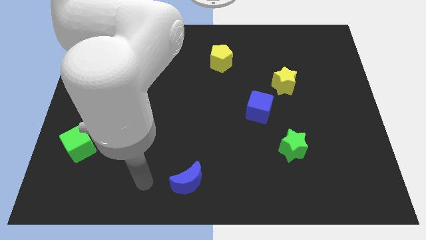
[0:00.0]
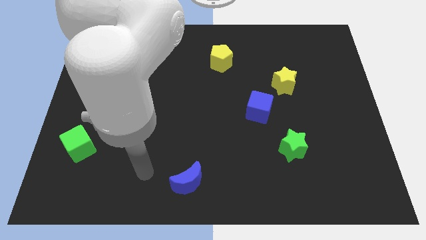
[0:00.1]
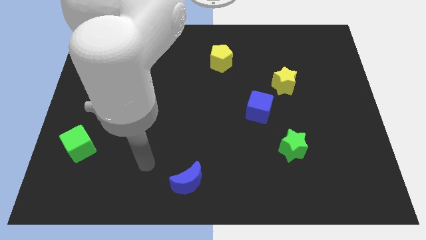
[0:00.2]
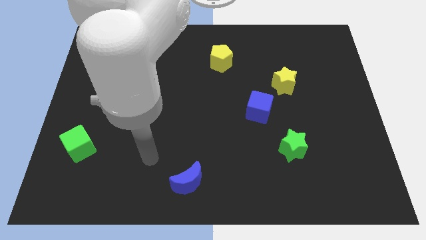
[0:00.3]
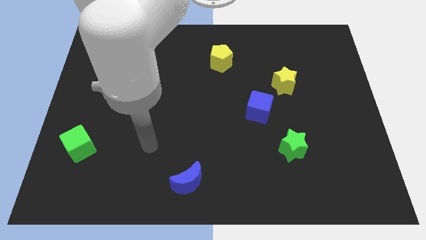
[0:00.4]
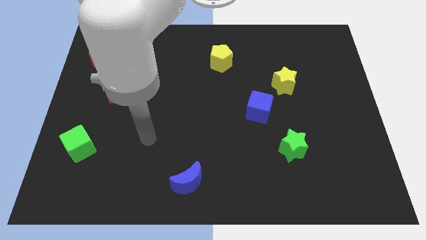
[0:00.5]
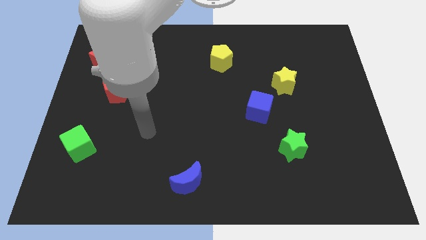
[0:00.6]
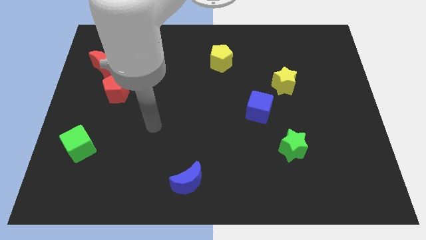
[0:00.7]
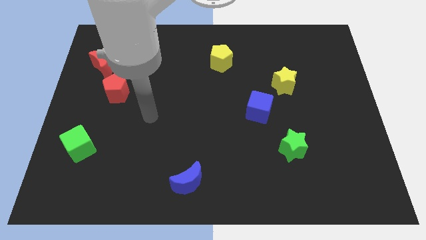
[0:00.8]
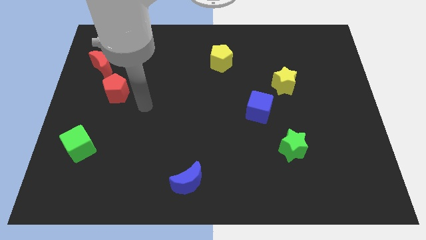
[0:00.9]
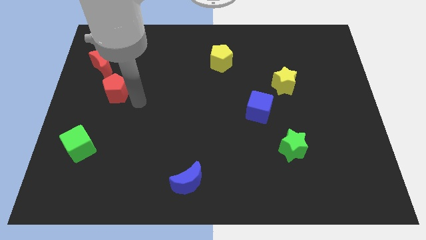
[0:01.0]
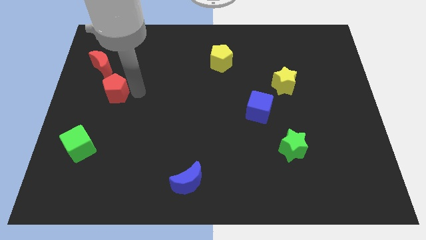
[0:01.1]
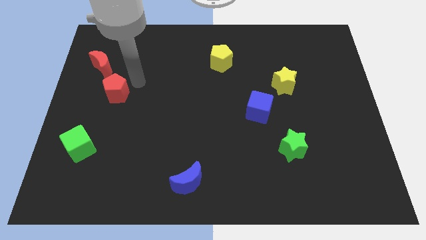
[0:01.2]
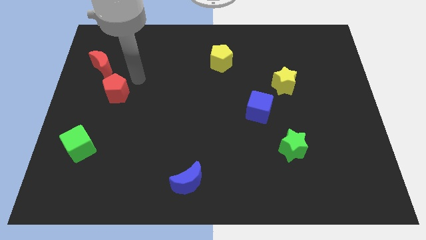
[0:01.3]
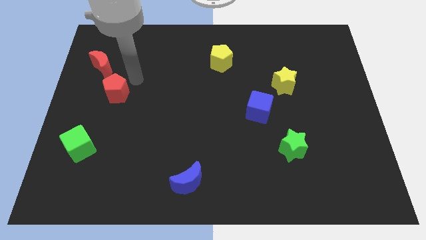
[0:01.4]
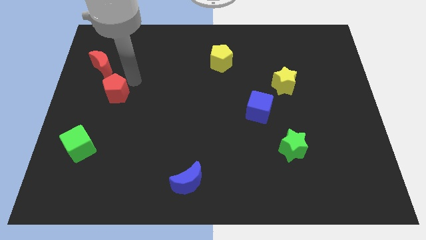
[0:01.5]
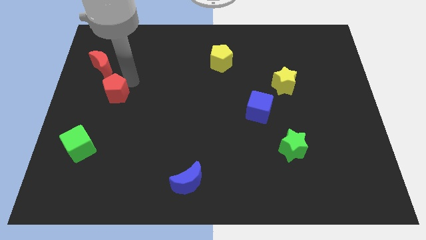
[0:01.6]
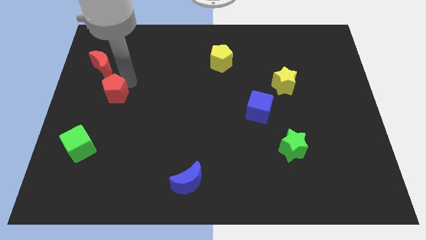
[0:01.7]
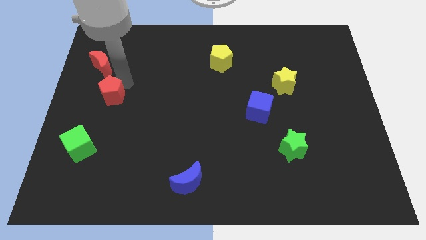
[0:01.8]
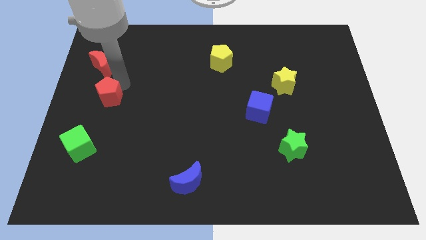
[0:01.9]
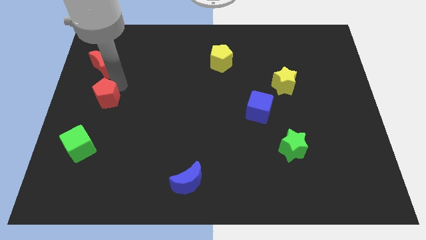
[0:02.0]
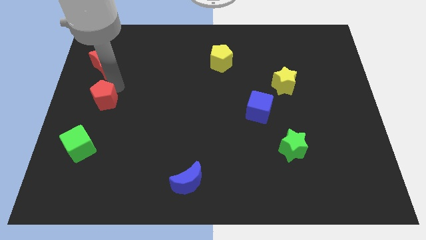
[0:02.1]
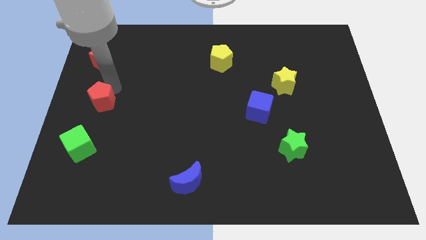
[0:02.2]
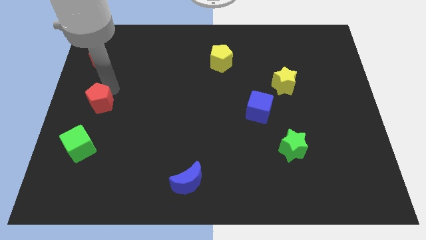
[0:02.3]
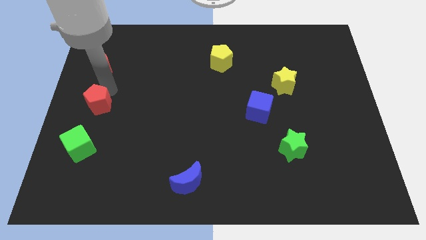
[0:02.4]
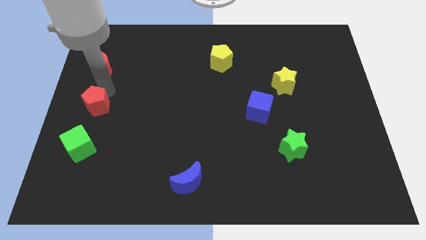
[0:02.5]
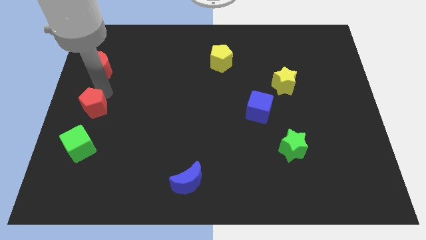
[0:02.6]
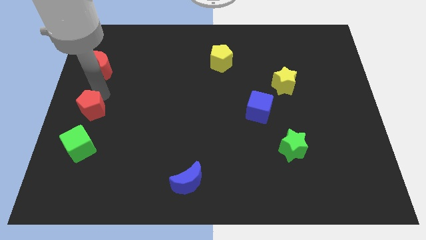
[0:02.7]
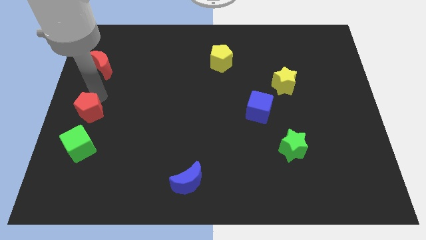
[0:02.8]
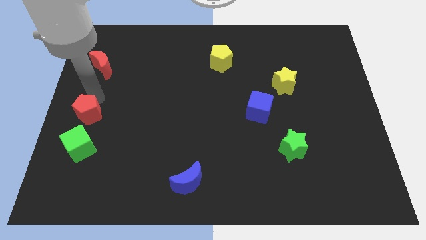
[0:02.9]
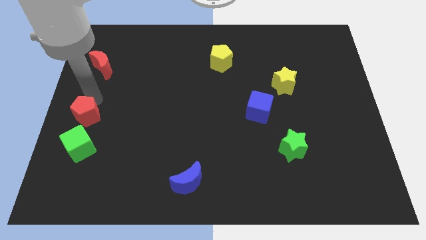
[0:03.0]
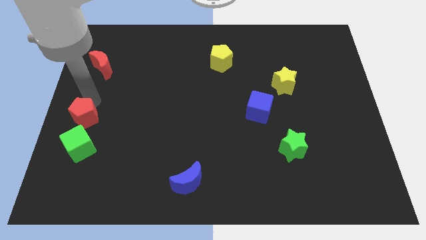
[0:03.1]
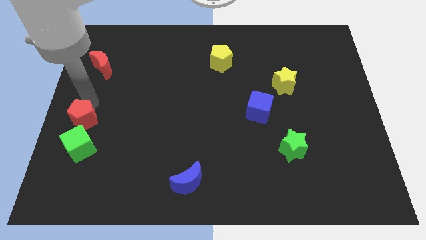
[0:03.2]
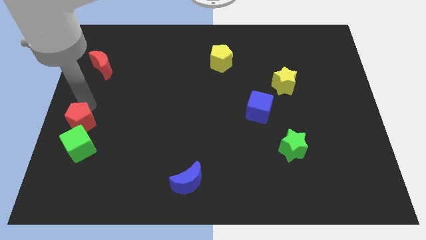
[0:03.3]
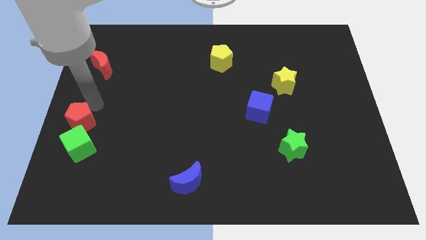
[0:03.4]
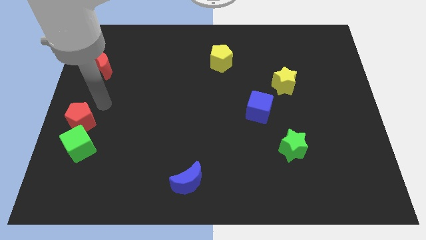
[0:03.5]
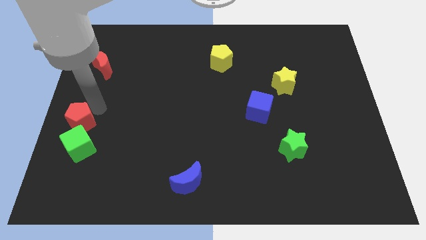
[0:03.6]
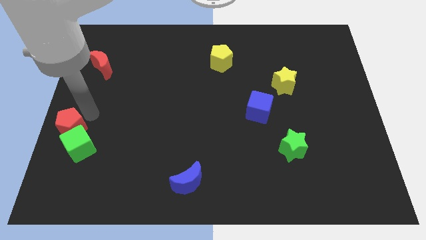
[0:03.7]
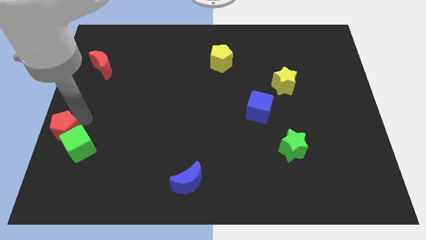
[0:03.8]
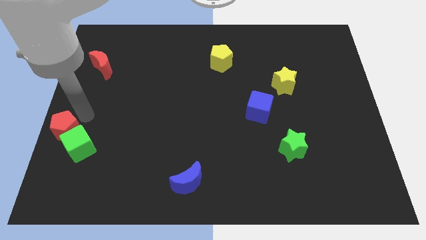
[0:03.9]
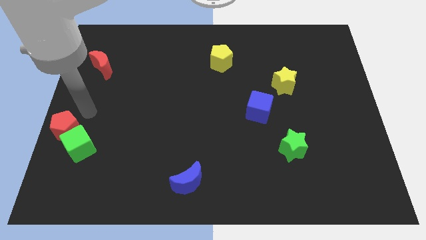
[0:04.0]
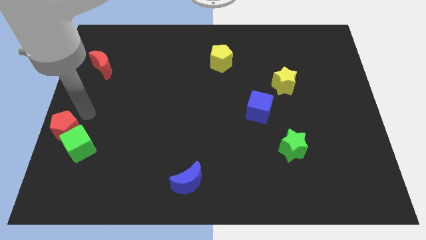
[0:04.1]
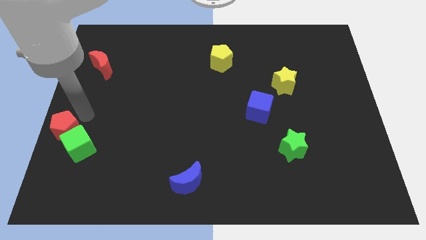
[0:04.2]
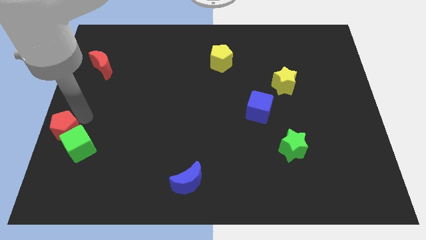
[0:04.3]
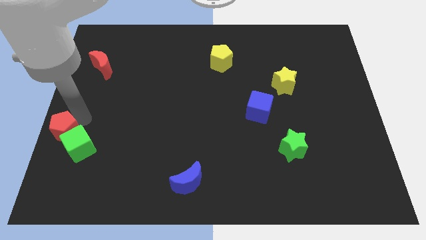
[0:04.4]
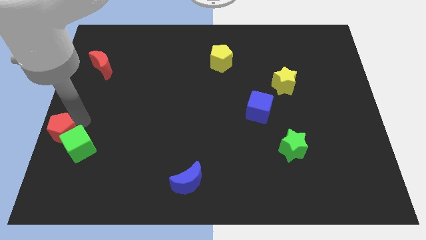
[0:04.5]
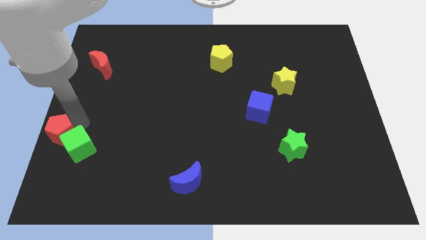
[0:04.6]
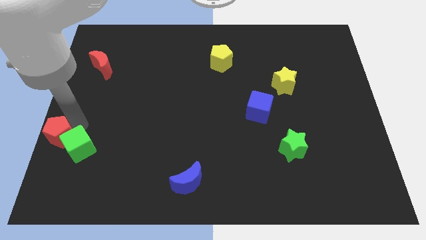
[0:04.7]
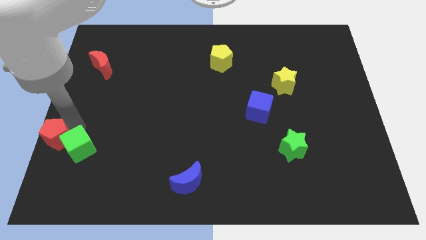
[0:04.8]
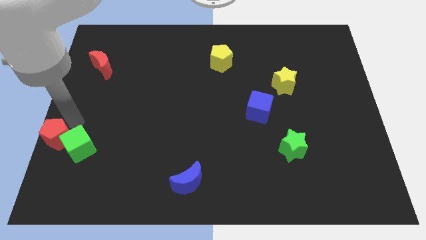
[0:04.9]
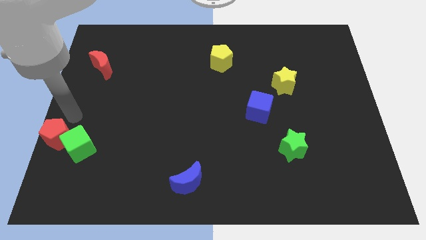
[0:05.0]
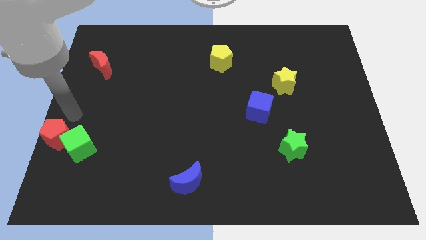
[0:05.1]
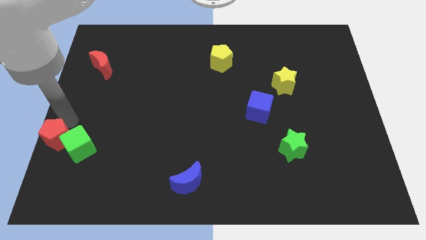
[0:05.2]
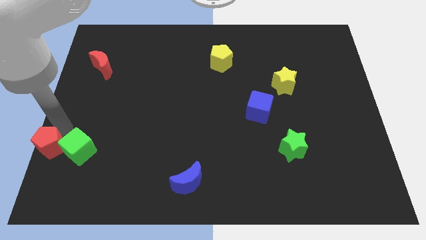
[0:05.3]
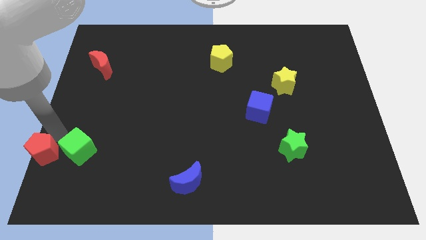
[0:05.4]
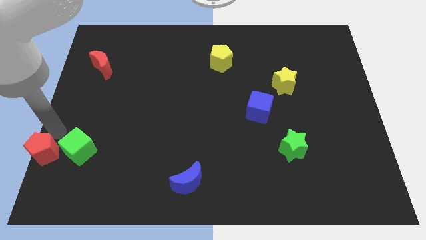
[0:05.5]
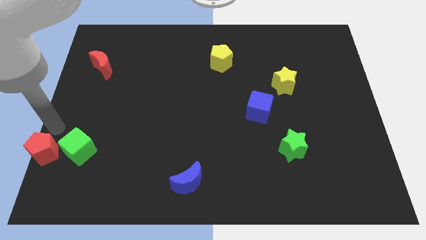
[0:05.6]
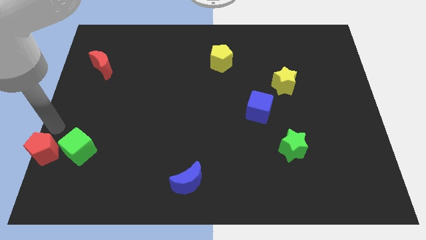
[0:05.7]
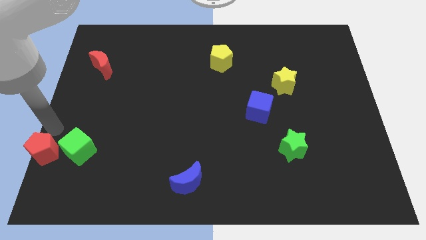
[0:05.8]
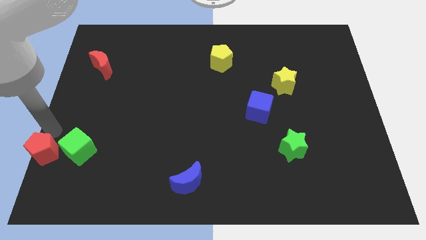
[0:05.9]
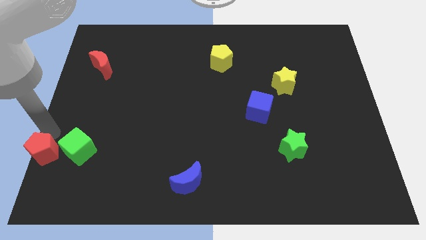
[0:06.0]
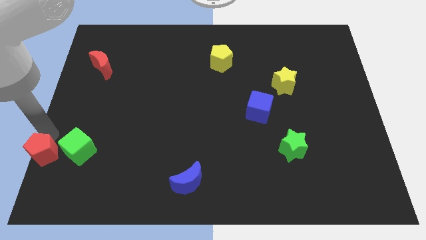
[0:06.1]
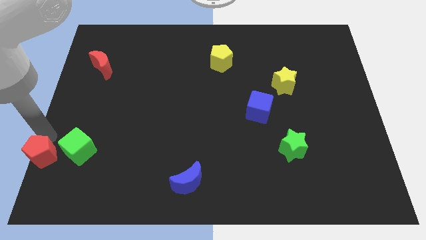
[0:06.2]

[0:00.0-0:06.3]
put the red pentagon to the lower left corner
